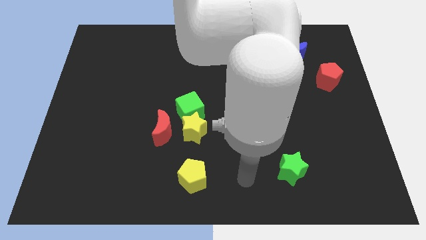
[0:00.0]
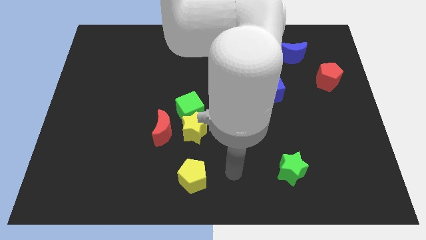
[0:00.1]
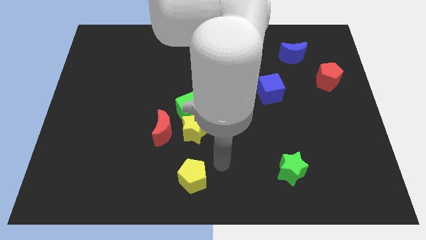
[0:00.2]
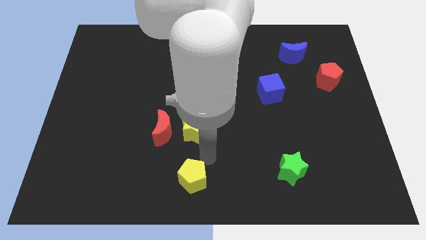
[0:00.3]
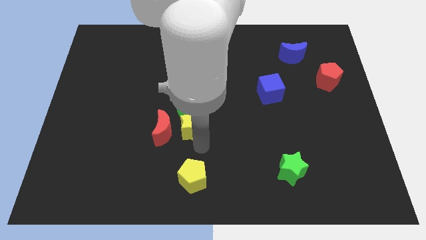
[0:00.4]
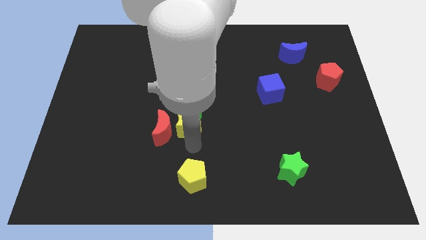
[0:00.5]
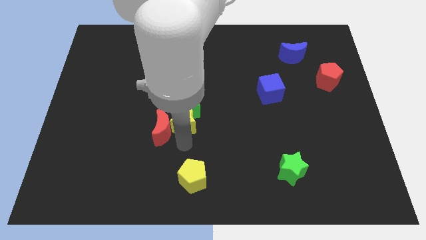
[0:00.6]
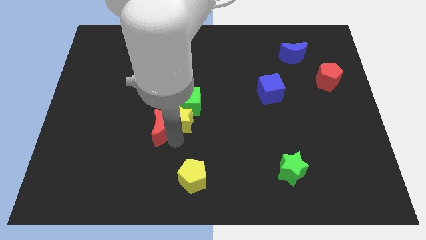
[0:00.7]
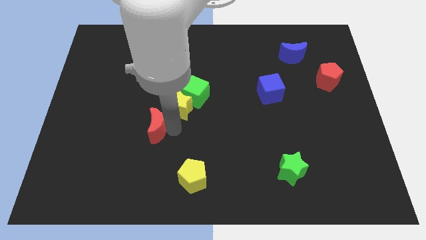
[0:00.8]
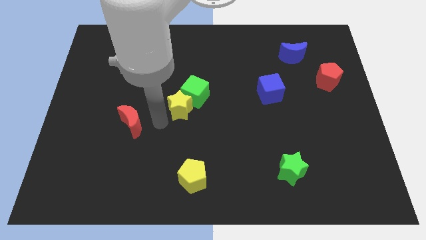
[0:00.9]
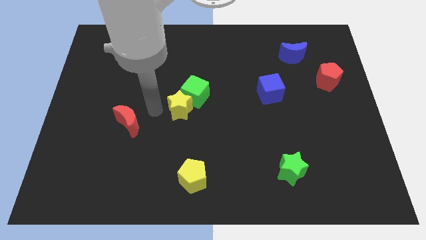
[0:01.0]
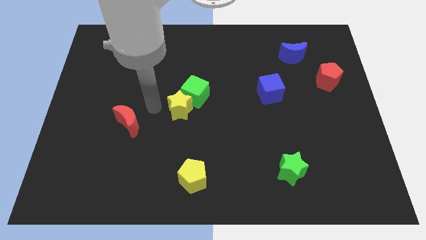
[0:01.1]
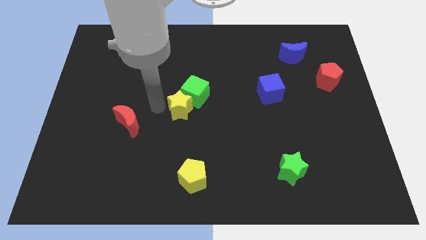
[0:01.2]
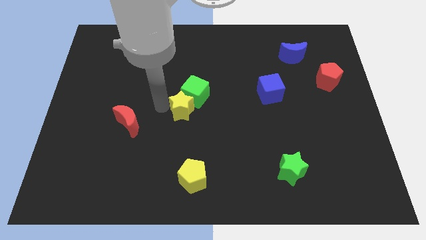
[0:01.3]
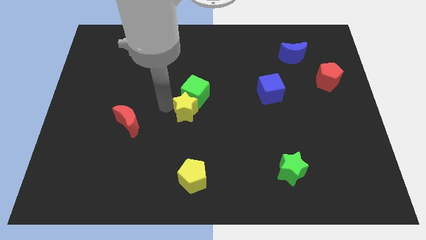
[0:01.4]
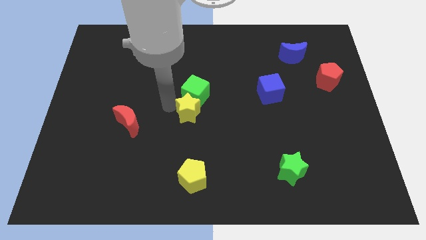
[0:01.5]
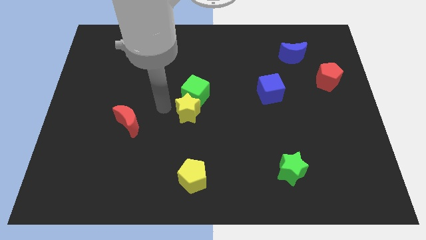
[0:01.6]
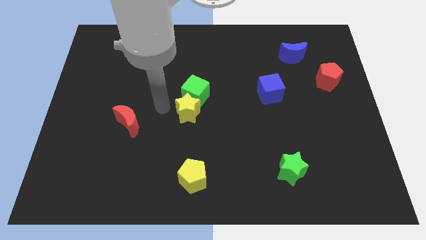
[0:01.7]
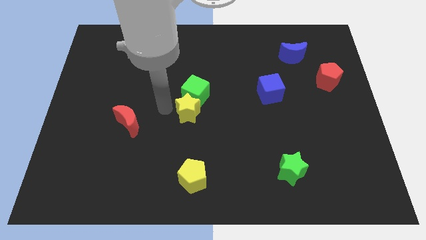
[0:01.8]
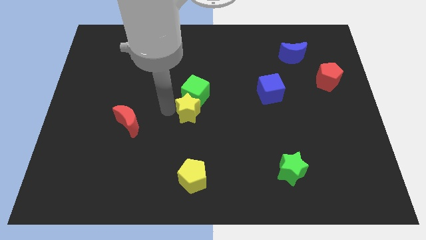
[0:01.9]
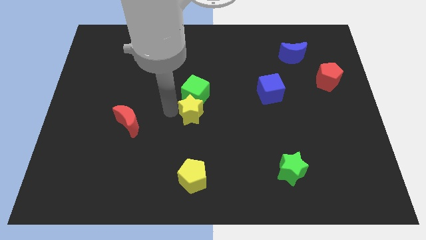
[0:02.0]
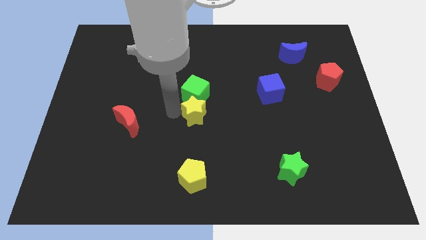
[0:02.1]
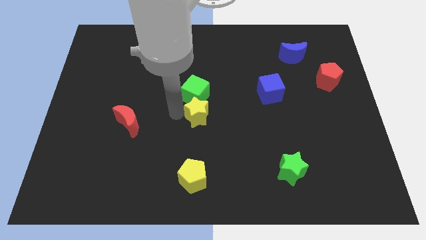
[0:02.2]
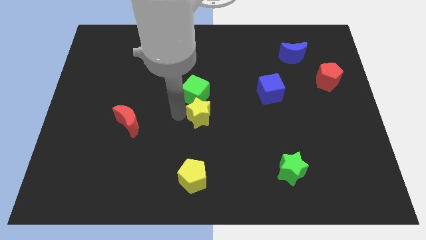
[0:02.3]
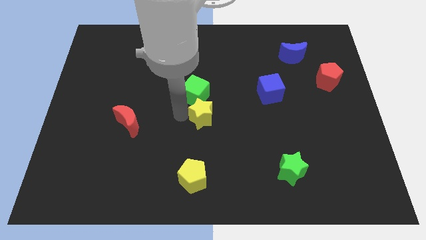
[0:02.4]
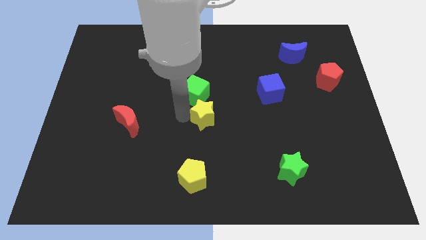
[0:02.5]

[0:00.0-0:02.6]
move the yellow star away from the green cube and red moon

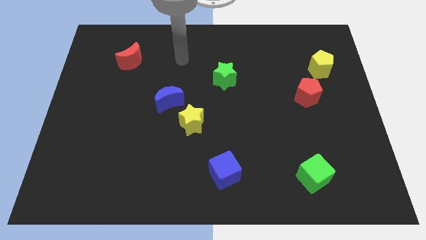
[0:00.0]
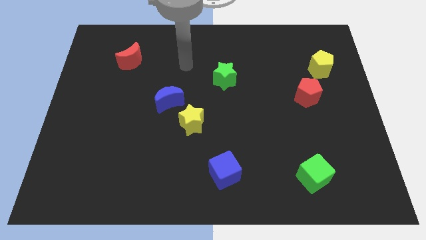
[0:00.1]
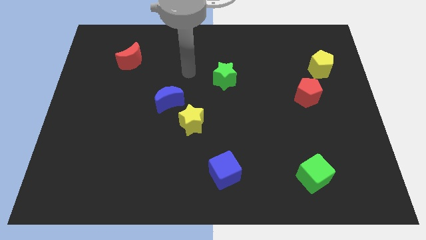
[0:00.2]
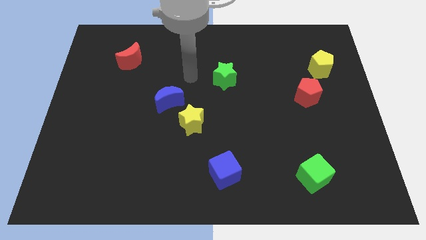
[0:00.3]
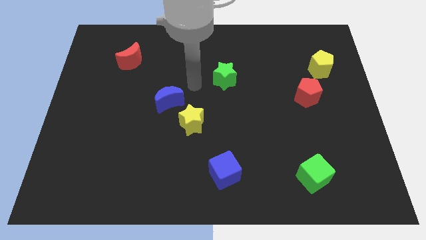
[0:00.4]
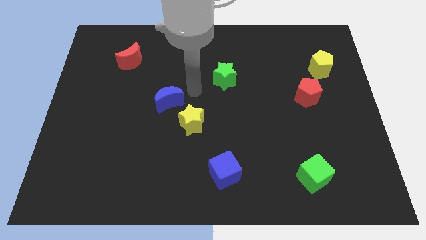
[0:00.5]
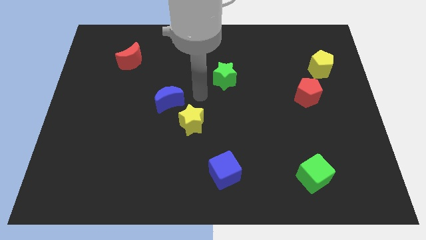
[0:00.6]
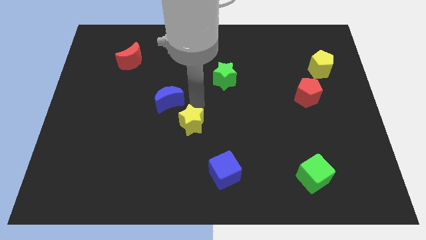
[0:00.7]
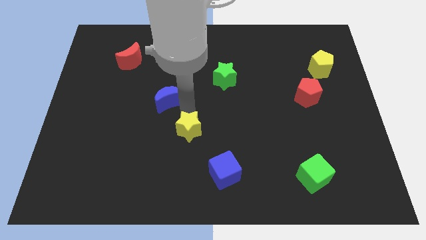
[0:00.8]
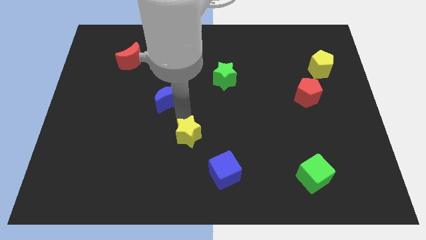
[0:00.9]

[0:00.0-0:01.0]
pull the blue moon apart from the yellow star

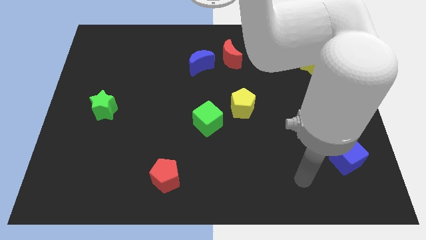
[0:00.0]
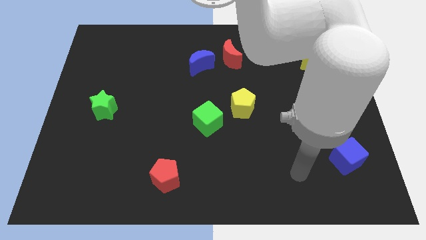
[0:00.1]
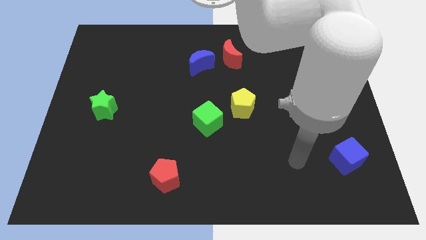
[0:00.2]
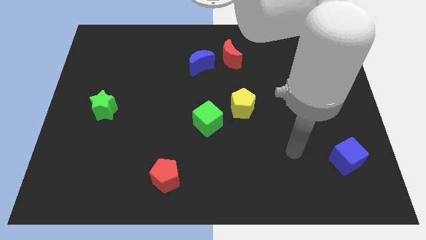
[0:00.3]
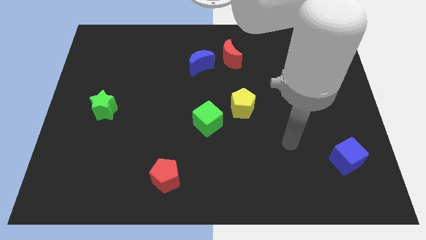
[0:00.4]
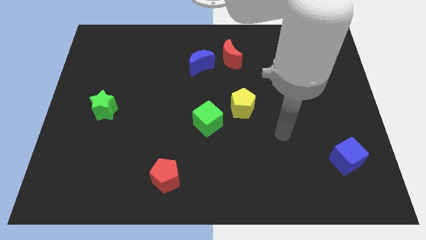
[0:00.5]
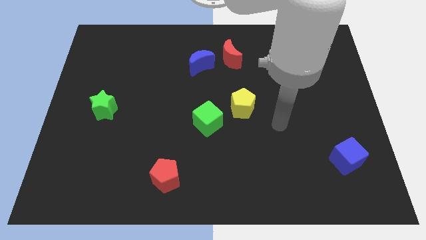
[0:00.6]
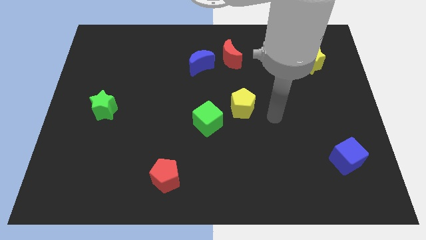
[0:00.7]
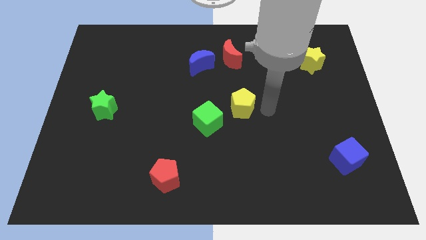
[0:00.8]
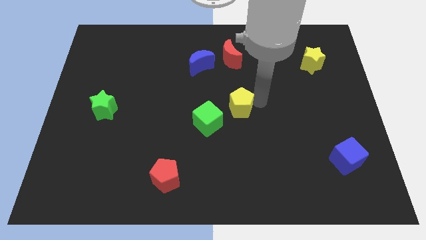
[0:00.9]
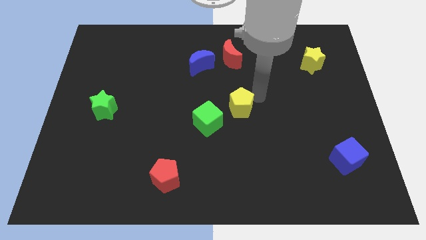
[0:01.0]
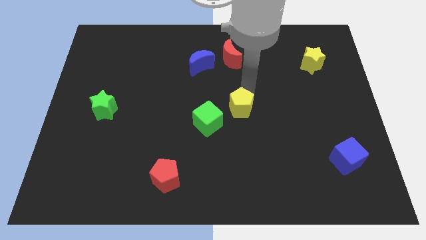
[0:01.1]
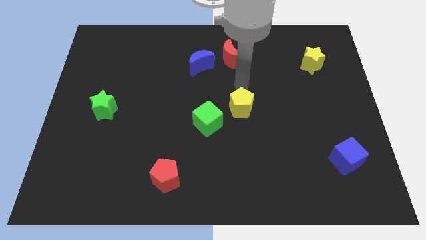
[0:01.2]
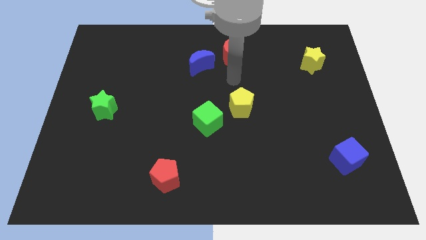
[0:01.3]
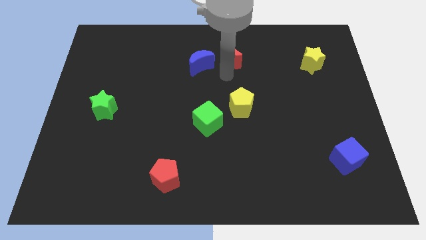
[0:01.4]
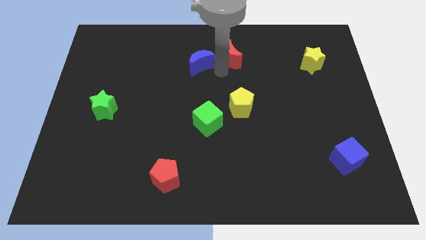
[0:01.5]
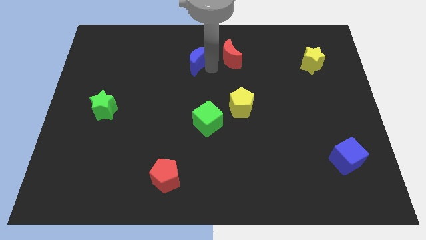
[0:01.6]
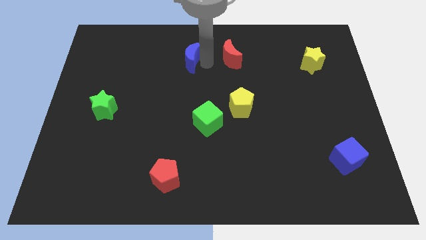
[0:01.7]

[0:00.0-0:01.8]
separate the red moon from the blue moon

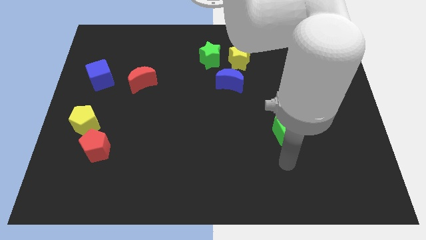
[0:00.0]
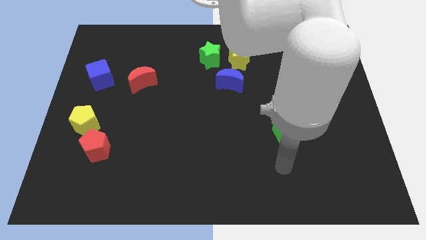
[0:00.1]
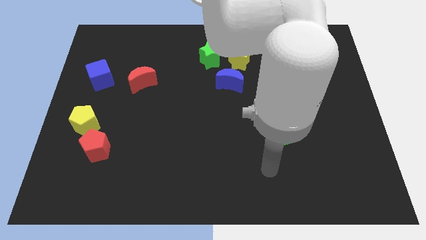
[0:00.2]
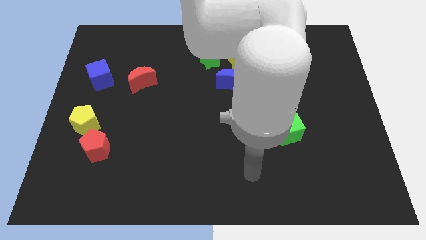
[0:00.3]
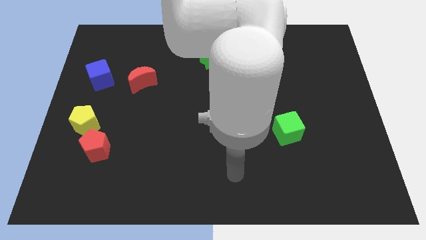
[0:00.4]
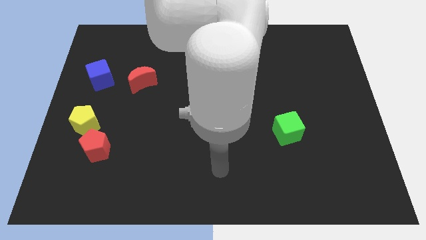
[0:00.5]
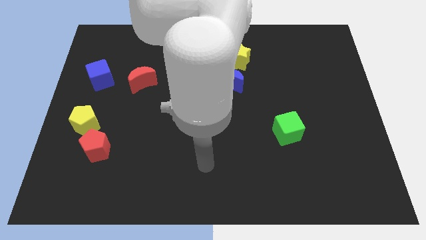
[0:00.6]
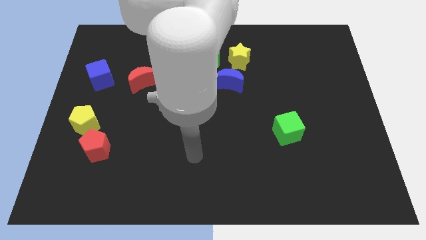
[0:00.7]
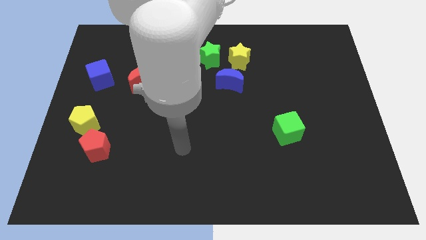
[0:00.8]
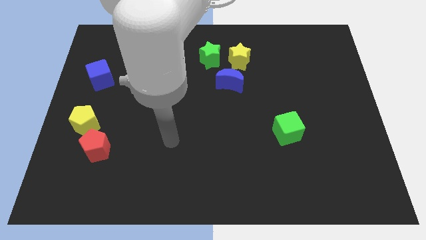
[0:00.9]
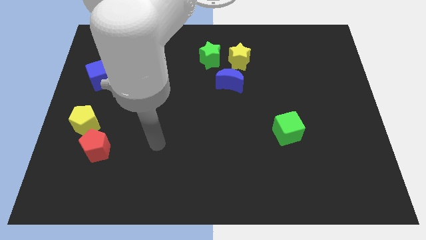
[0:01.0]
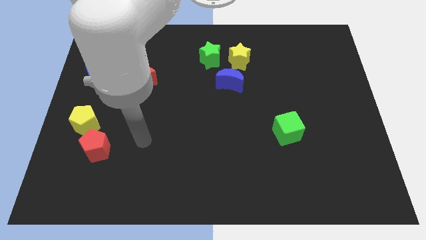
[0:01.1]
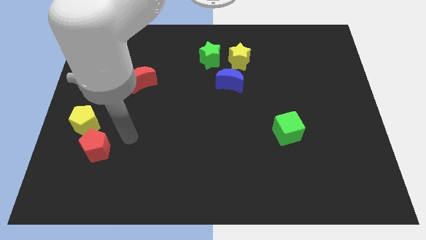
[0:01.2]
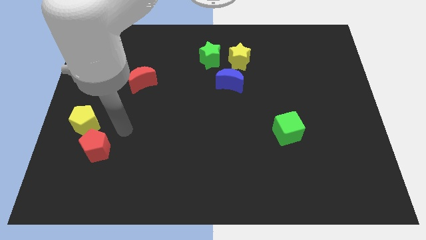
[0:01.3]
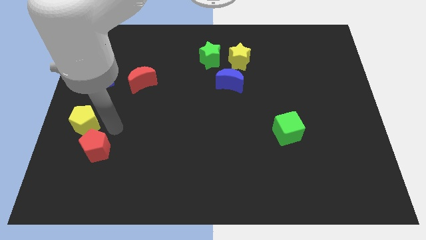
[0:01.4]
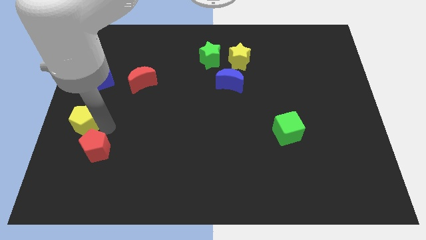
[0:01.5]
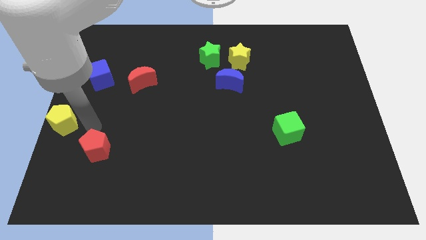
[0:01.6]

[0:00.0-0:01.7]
pull the red pentagon apart from the yellow pentagon

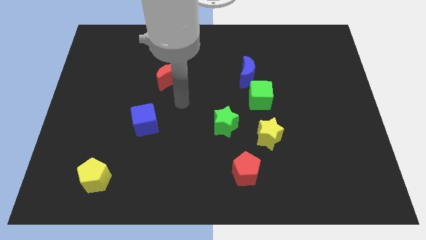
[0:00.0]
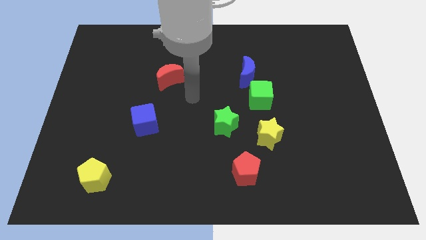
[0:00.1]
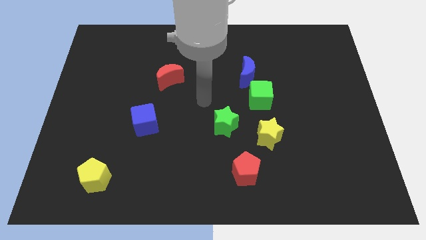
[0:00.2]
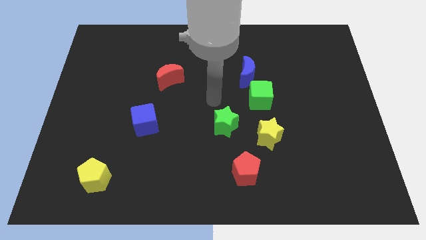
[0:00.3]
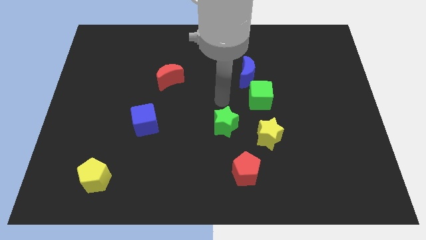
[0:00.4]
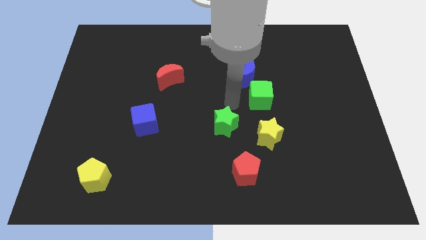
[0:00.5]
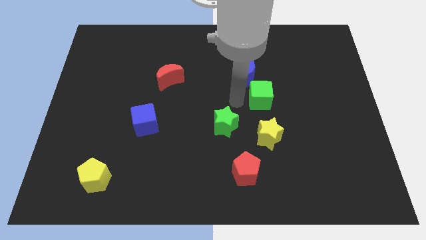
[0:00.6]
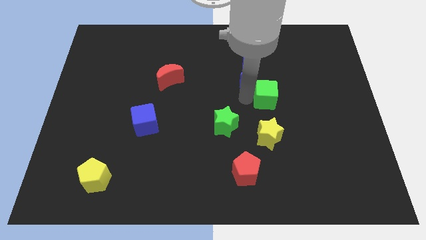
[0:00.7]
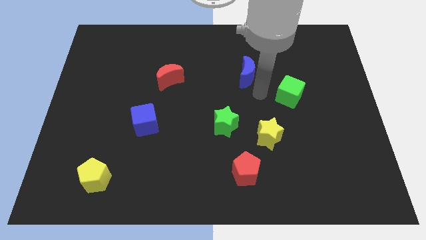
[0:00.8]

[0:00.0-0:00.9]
separate the blue moon from the green cube

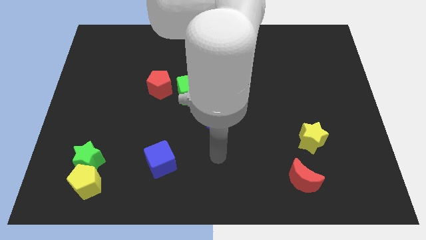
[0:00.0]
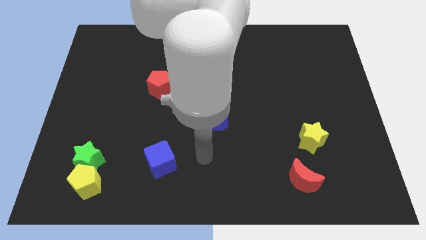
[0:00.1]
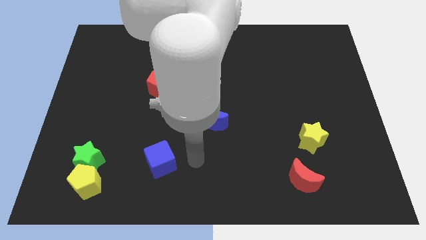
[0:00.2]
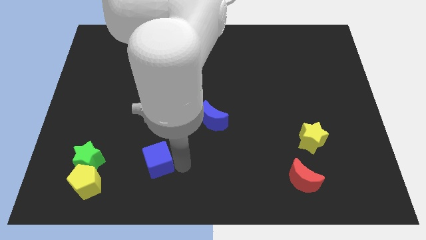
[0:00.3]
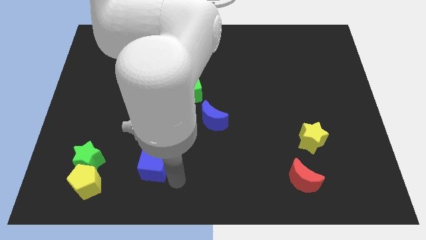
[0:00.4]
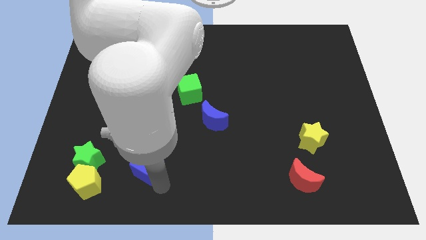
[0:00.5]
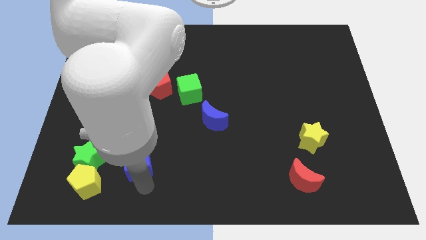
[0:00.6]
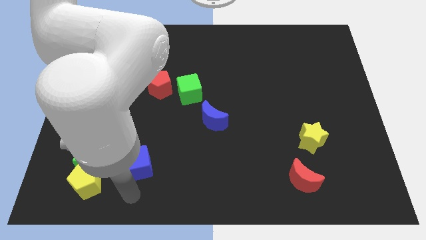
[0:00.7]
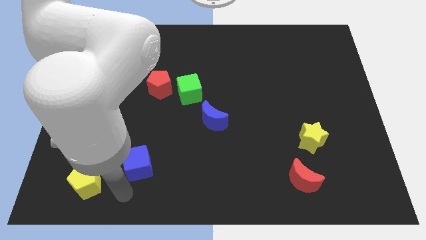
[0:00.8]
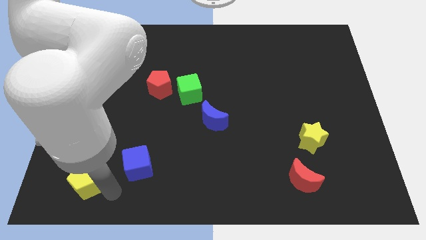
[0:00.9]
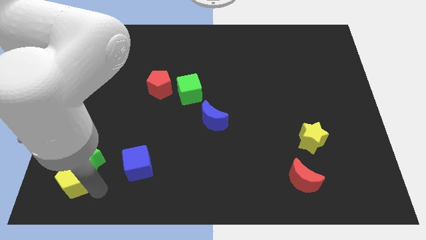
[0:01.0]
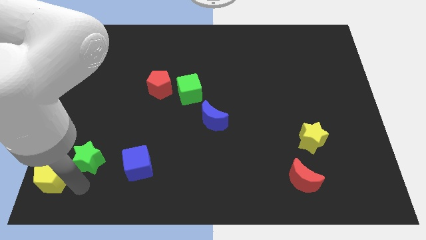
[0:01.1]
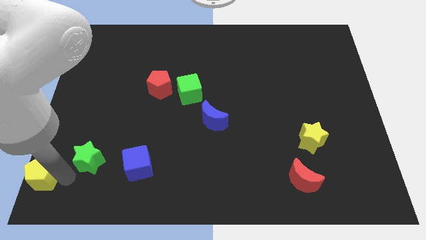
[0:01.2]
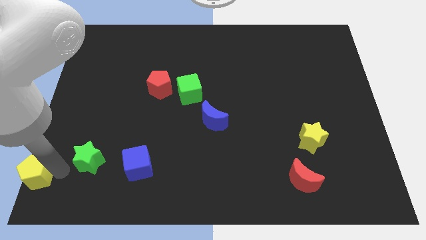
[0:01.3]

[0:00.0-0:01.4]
pull the green star apart from the yellow pentagon

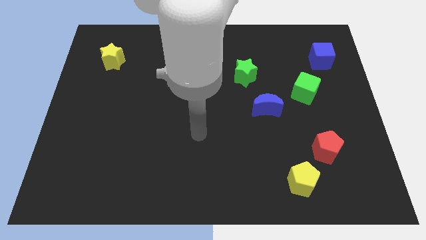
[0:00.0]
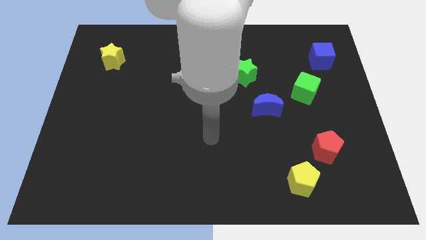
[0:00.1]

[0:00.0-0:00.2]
separate the red pentagon from the yellow pentagon
